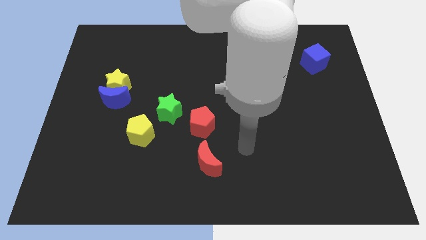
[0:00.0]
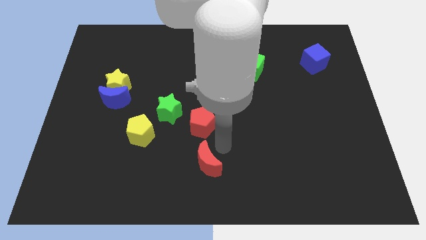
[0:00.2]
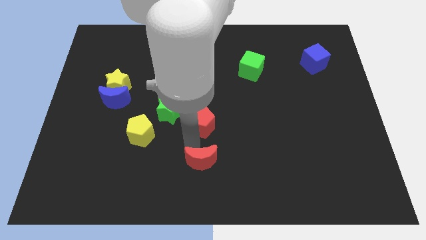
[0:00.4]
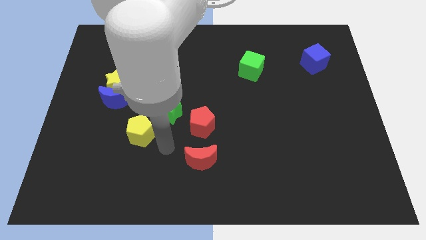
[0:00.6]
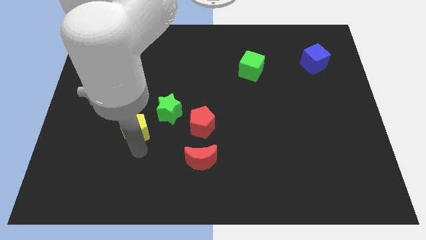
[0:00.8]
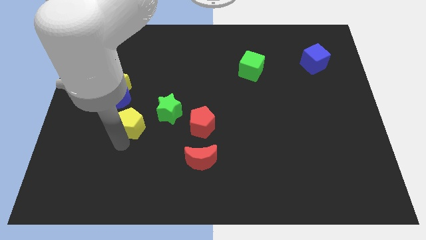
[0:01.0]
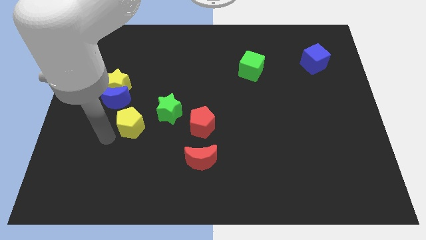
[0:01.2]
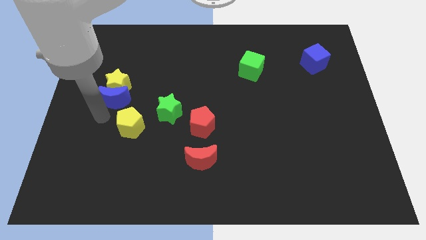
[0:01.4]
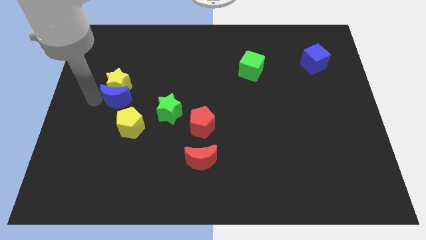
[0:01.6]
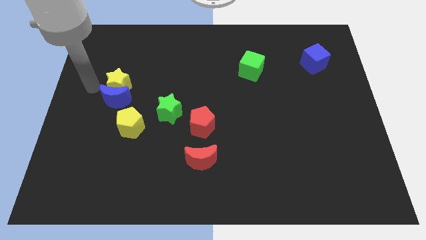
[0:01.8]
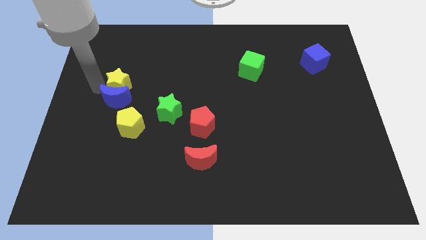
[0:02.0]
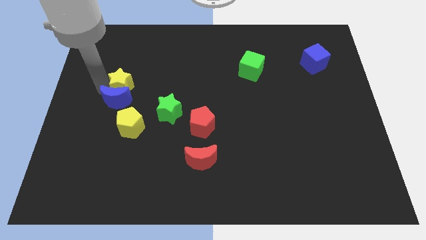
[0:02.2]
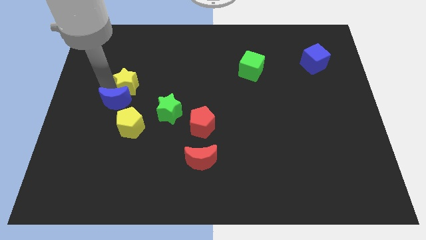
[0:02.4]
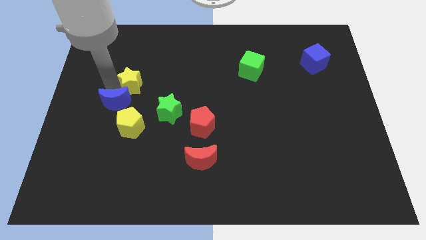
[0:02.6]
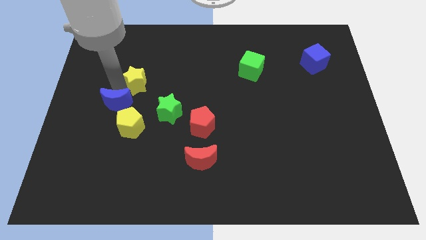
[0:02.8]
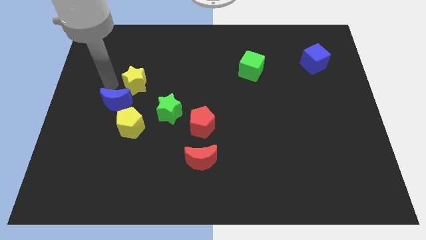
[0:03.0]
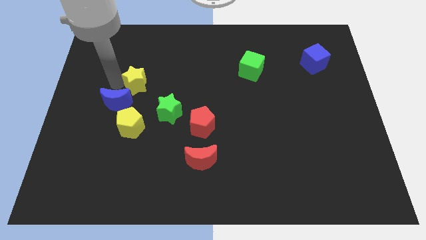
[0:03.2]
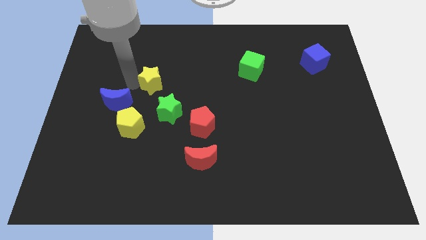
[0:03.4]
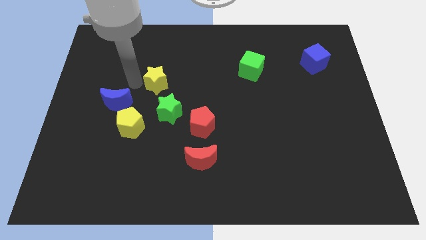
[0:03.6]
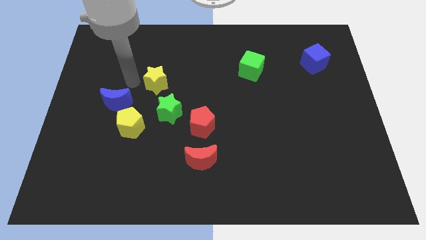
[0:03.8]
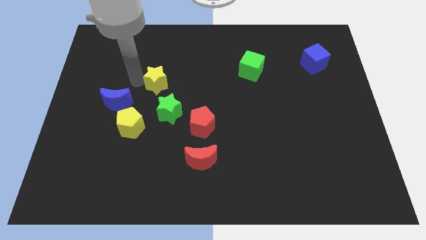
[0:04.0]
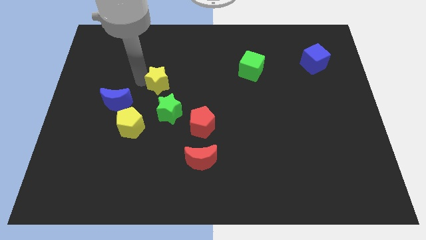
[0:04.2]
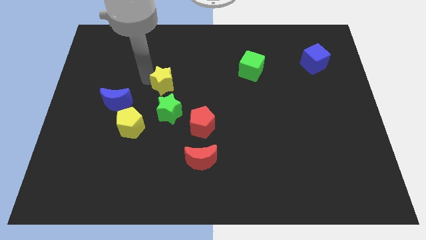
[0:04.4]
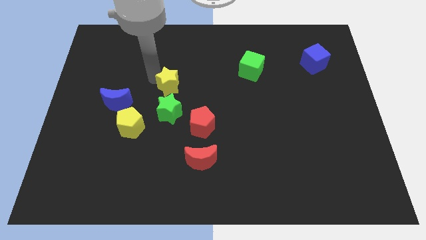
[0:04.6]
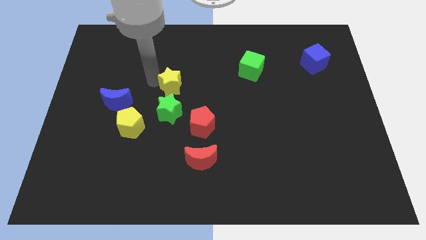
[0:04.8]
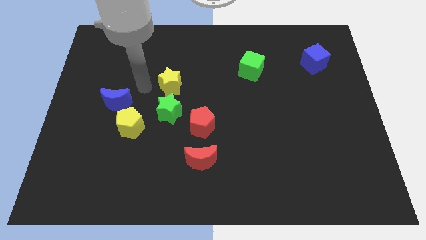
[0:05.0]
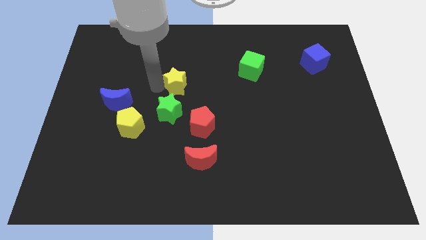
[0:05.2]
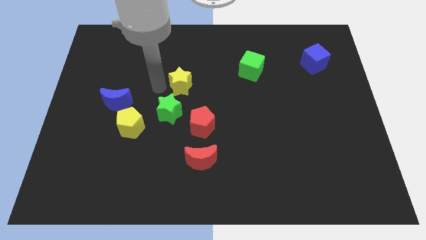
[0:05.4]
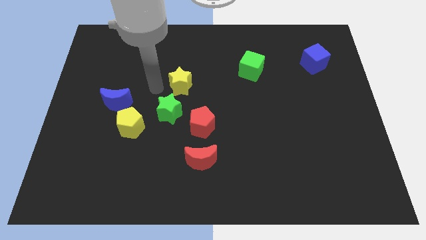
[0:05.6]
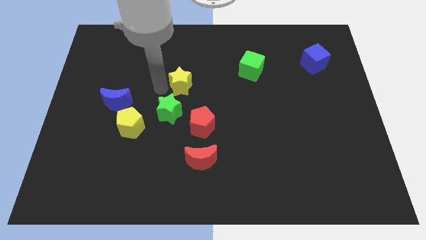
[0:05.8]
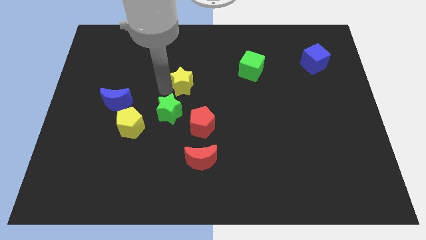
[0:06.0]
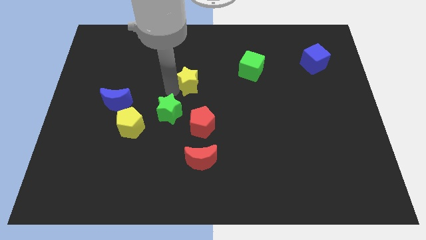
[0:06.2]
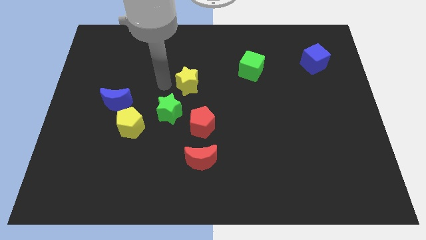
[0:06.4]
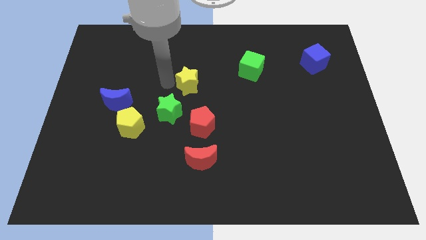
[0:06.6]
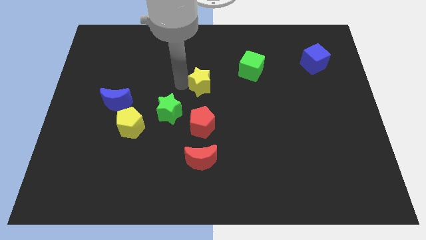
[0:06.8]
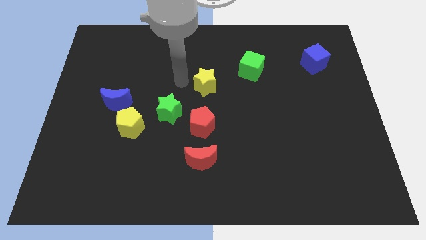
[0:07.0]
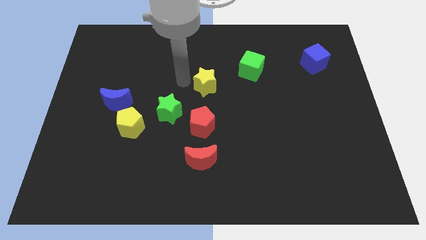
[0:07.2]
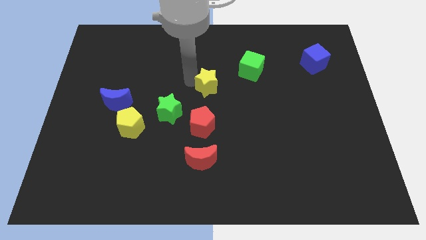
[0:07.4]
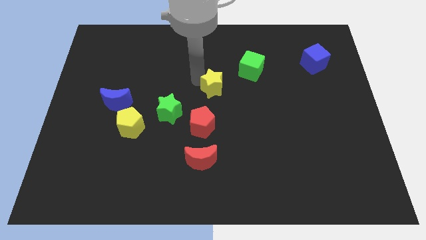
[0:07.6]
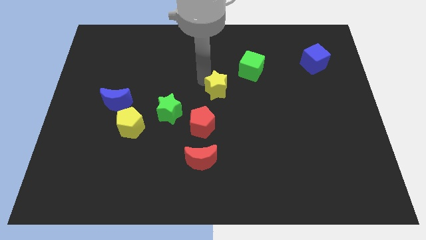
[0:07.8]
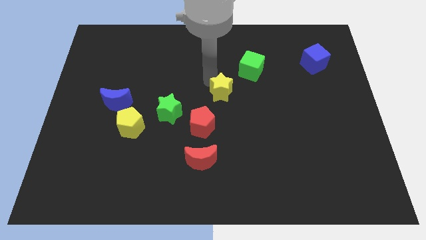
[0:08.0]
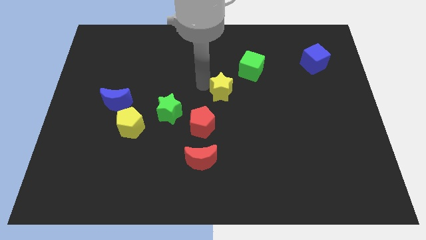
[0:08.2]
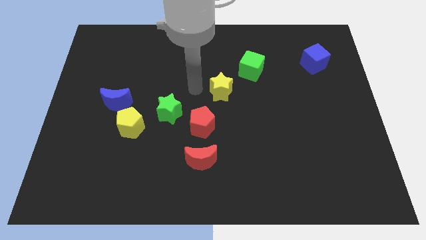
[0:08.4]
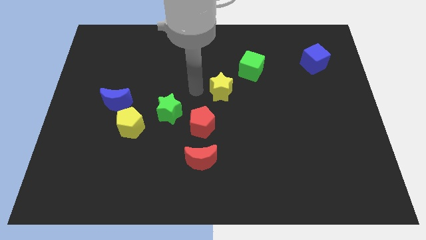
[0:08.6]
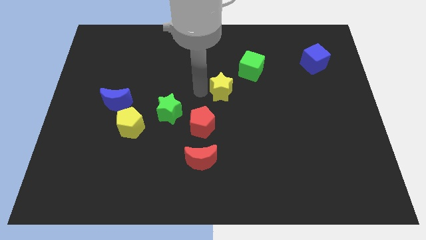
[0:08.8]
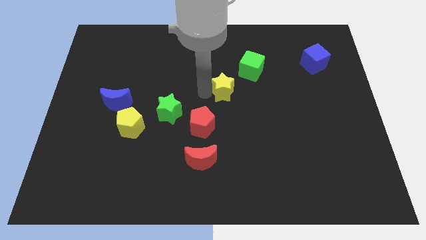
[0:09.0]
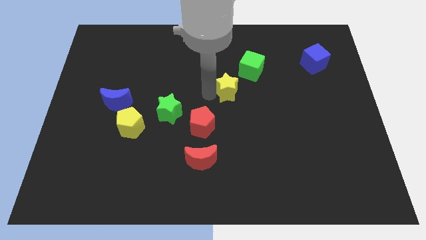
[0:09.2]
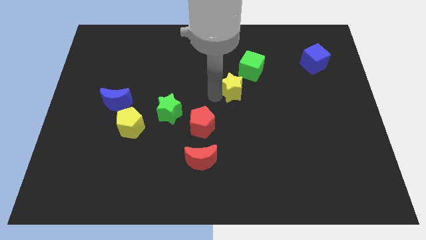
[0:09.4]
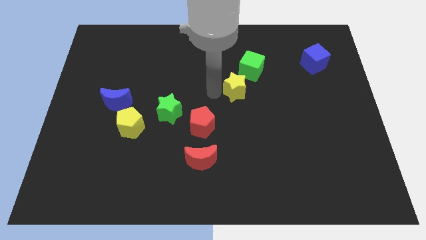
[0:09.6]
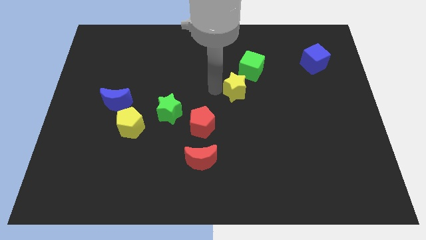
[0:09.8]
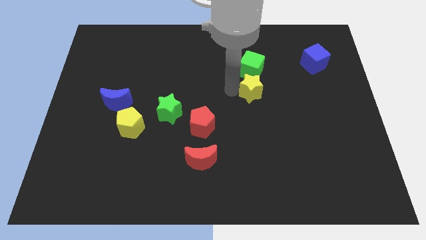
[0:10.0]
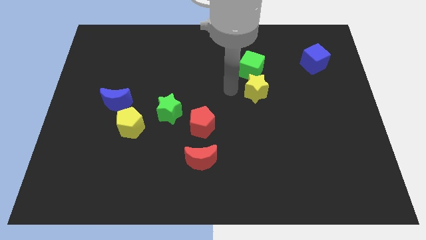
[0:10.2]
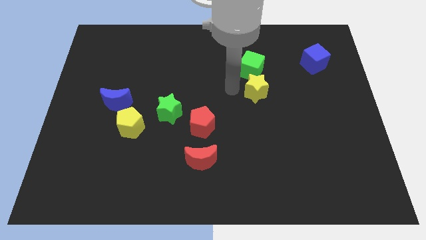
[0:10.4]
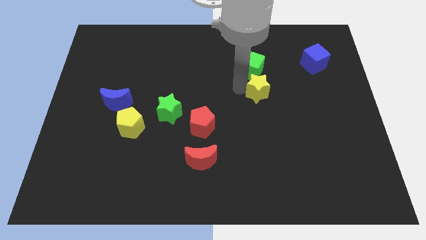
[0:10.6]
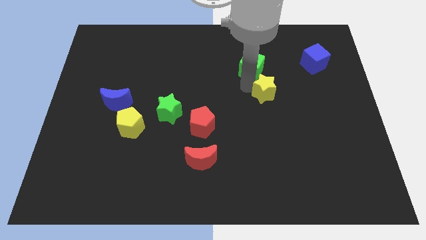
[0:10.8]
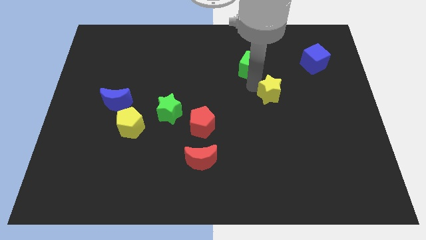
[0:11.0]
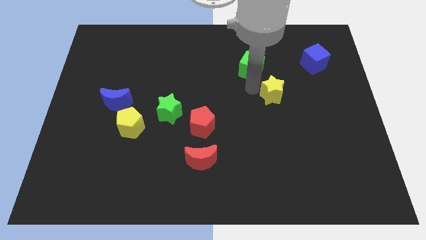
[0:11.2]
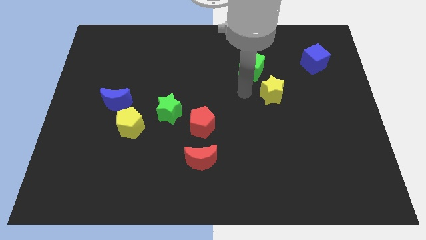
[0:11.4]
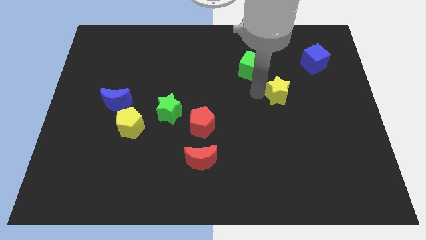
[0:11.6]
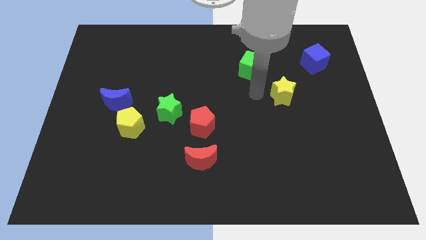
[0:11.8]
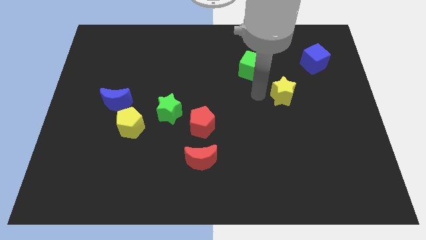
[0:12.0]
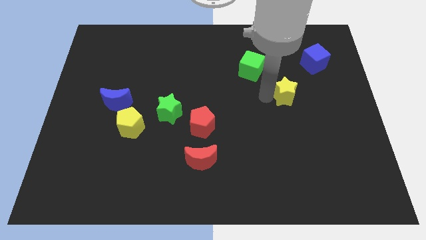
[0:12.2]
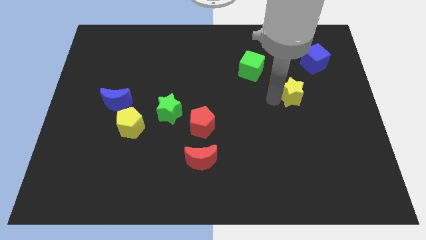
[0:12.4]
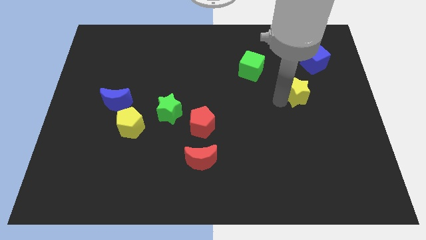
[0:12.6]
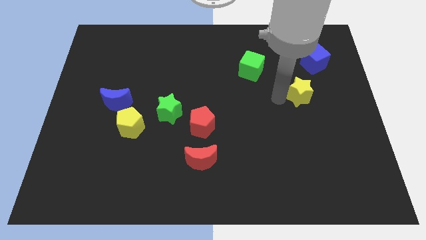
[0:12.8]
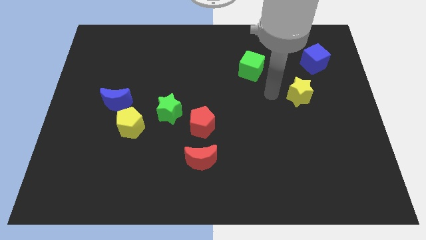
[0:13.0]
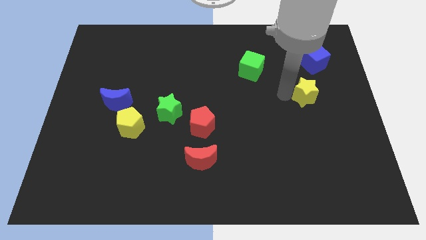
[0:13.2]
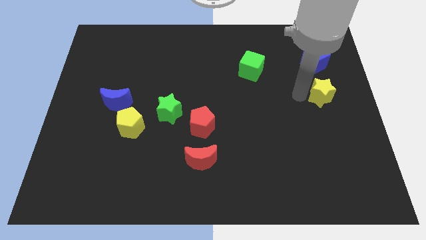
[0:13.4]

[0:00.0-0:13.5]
push the yellow star to the right side
